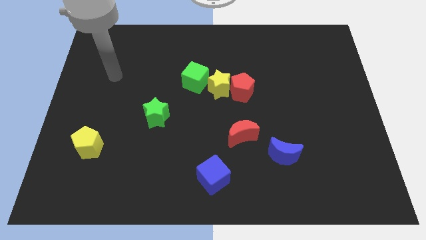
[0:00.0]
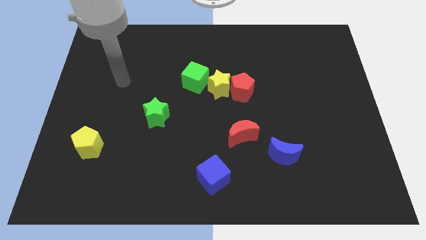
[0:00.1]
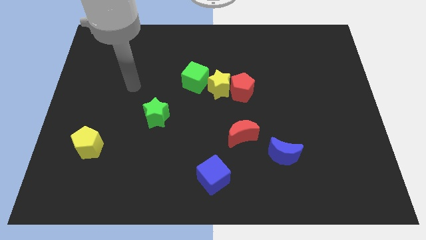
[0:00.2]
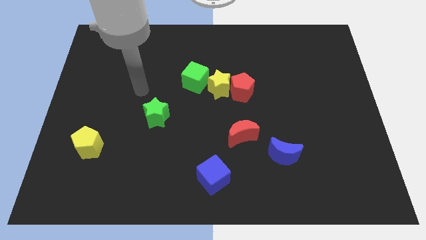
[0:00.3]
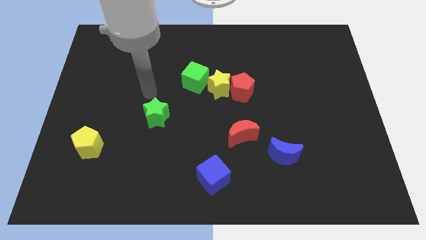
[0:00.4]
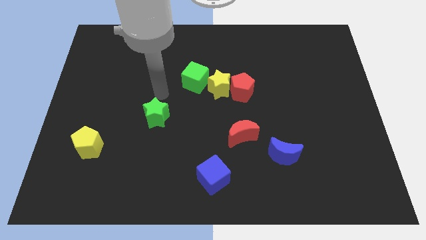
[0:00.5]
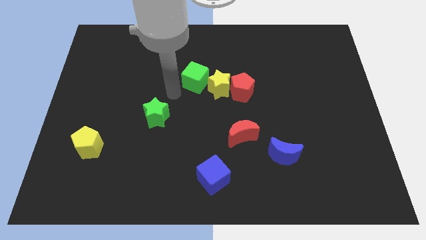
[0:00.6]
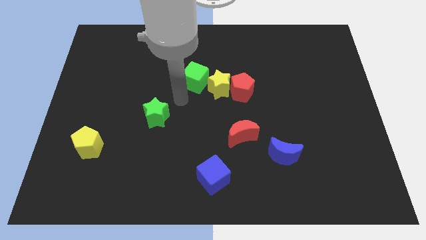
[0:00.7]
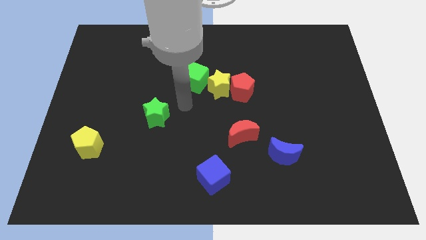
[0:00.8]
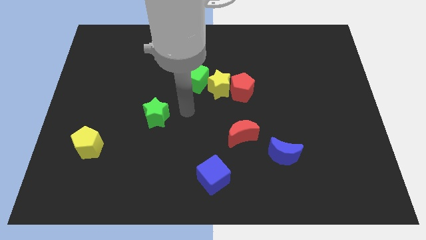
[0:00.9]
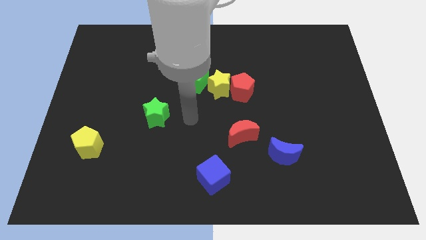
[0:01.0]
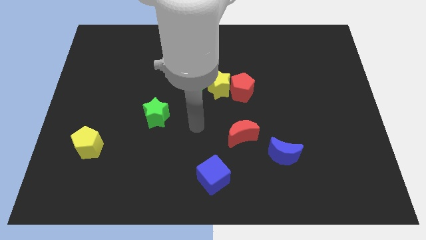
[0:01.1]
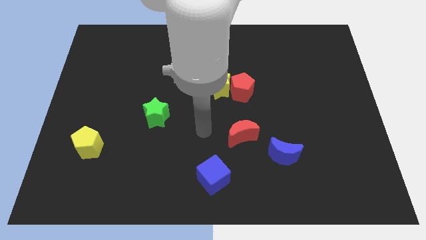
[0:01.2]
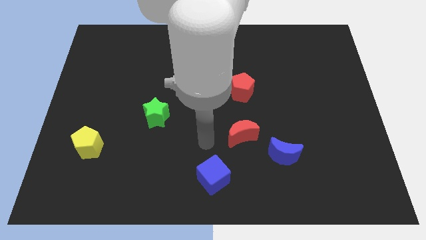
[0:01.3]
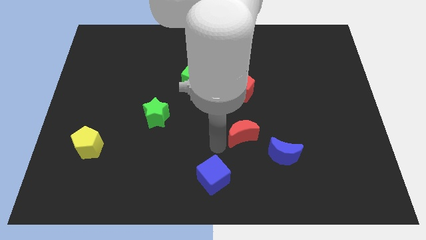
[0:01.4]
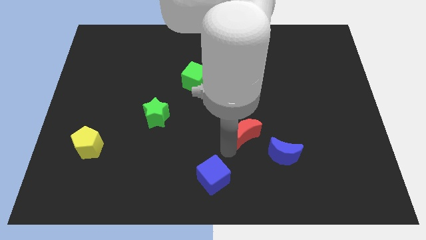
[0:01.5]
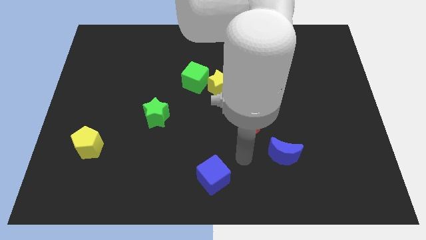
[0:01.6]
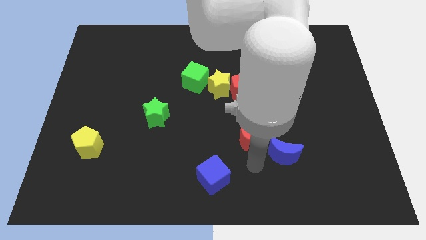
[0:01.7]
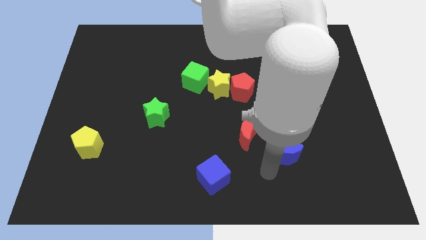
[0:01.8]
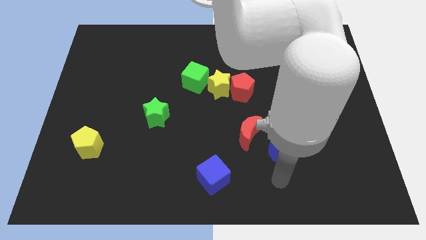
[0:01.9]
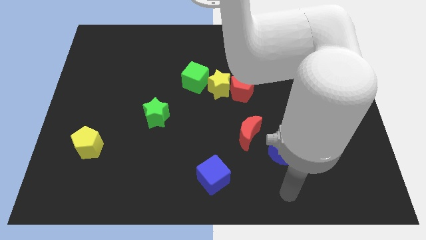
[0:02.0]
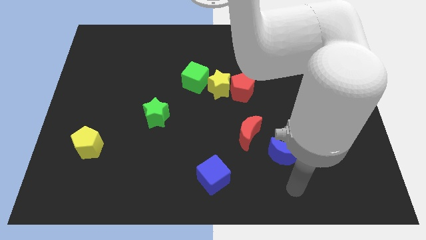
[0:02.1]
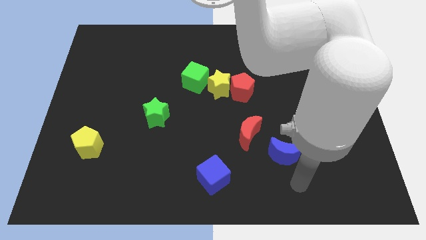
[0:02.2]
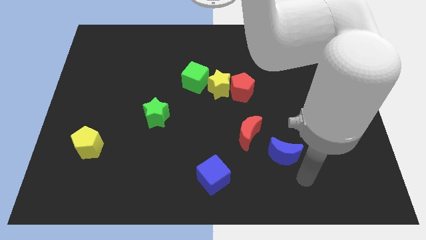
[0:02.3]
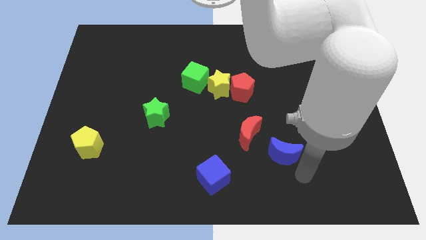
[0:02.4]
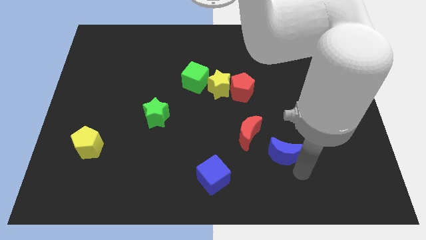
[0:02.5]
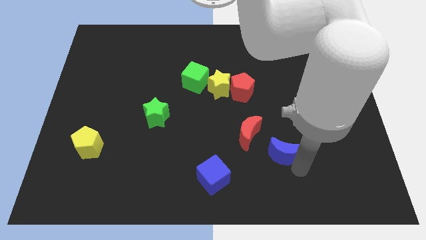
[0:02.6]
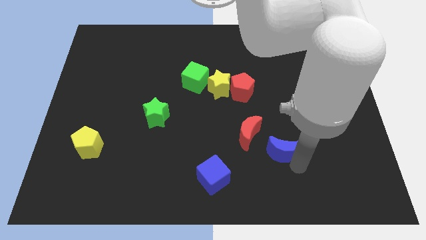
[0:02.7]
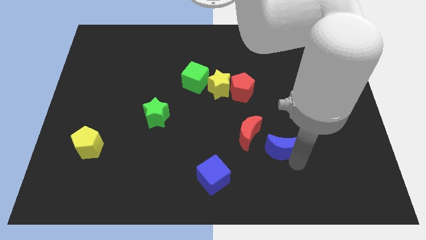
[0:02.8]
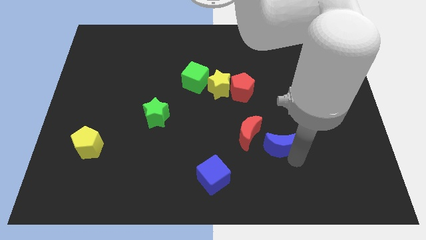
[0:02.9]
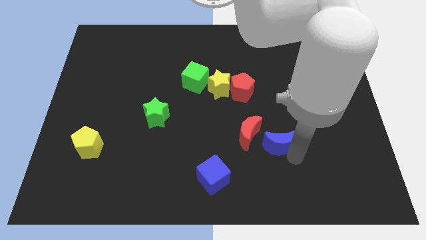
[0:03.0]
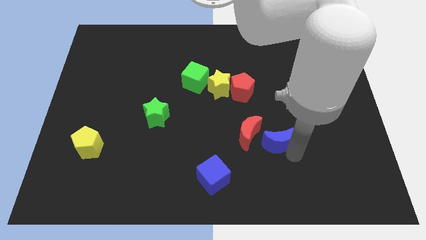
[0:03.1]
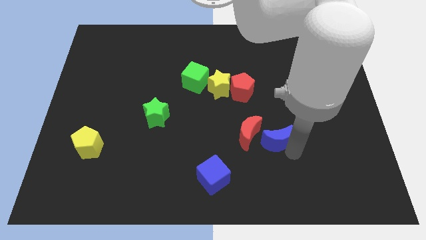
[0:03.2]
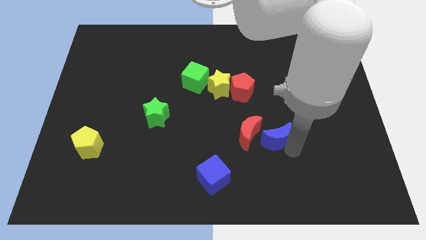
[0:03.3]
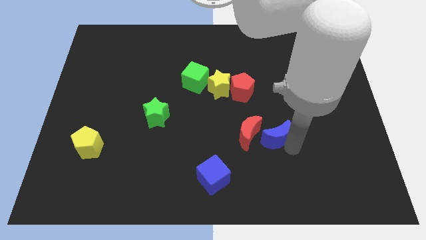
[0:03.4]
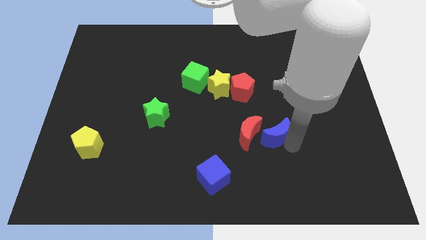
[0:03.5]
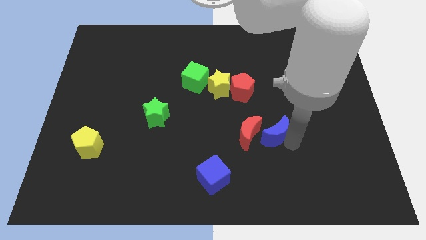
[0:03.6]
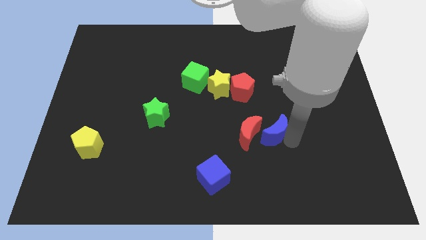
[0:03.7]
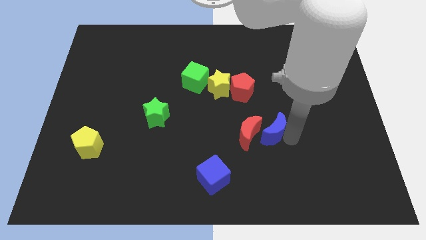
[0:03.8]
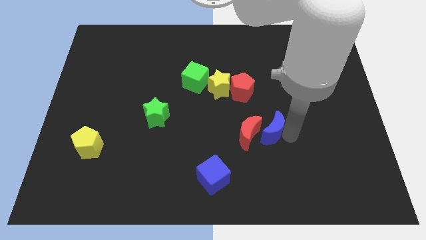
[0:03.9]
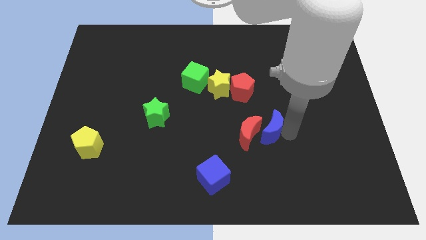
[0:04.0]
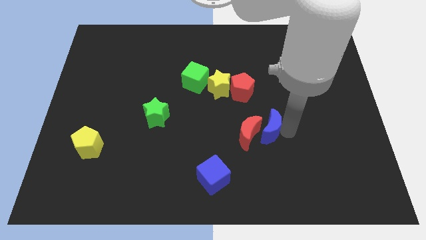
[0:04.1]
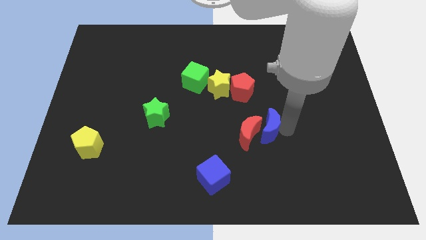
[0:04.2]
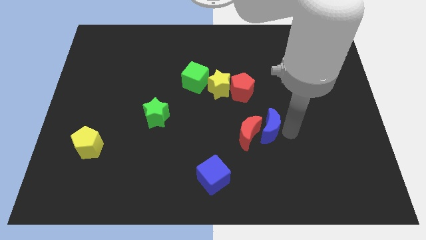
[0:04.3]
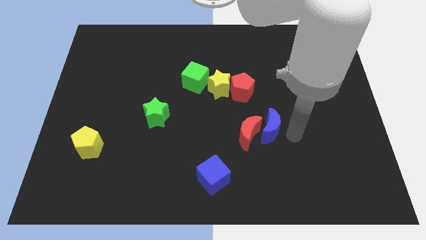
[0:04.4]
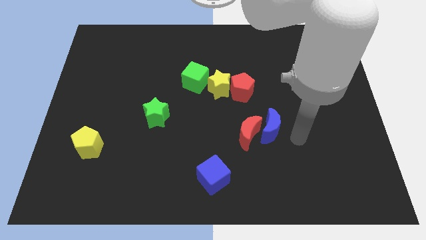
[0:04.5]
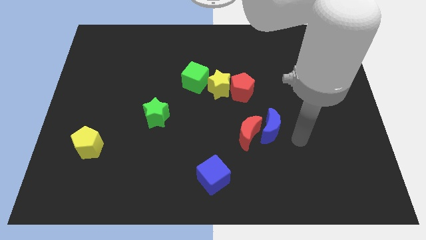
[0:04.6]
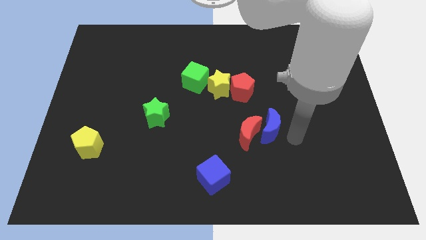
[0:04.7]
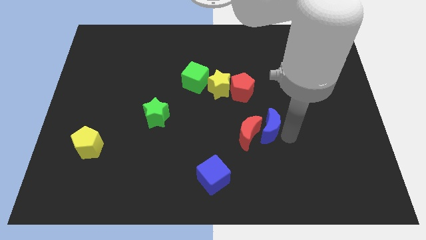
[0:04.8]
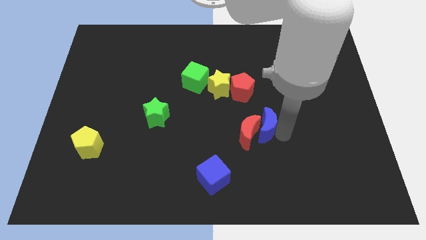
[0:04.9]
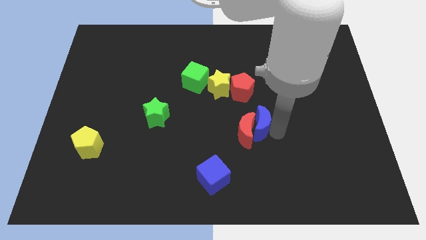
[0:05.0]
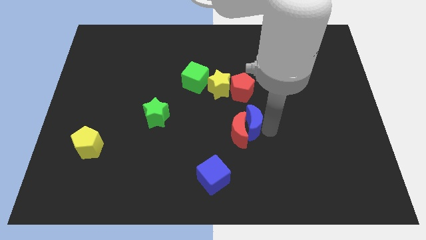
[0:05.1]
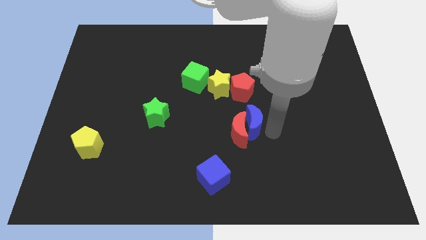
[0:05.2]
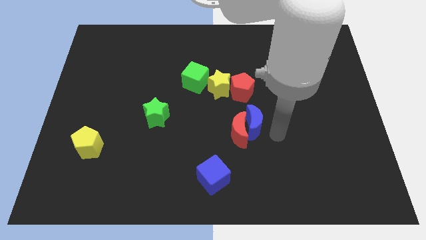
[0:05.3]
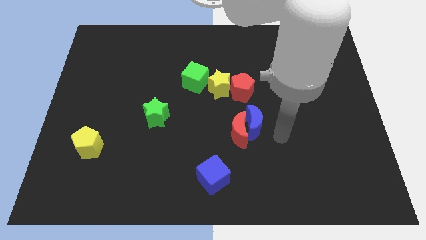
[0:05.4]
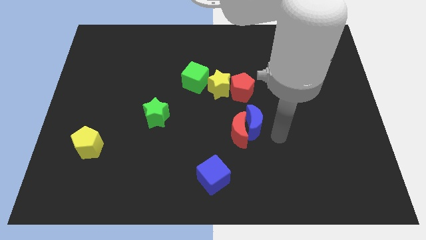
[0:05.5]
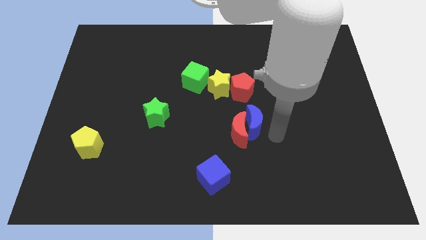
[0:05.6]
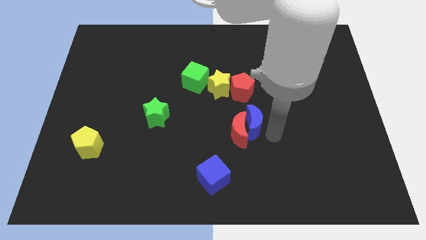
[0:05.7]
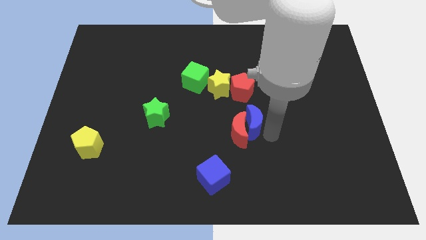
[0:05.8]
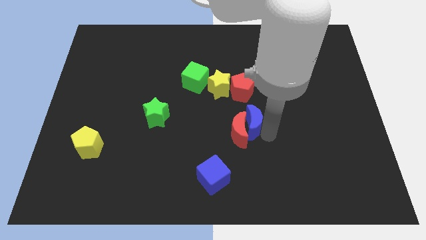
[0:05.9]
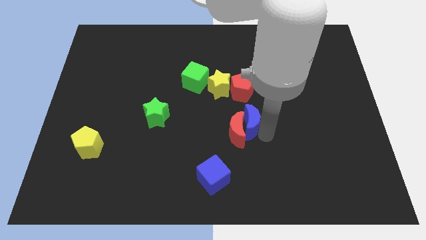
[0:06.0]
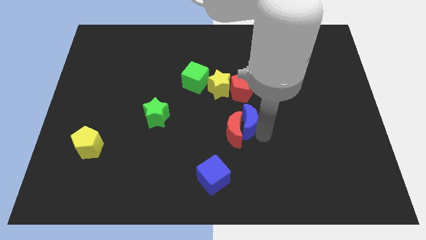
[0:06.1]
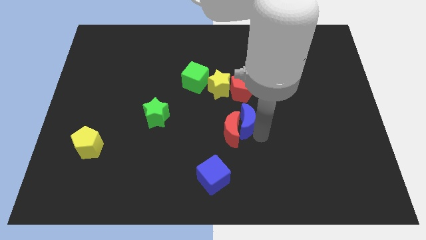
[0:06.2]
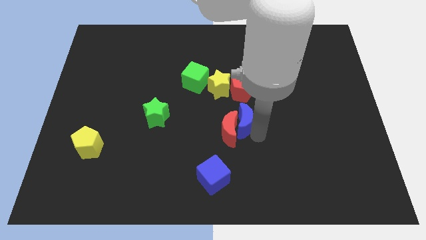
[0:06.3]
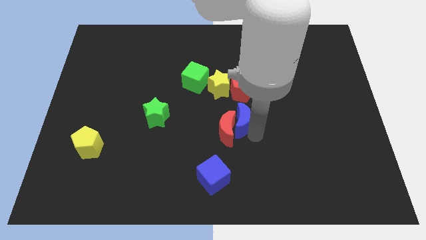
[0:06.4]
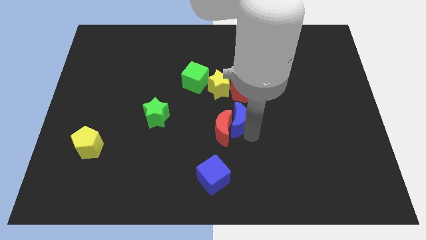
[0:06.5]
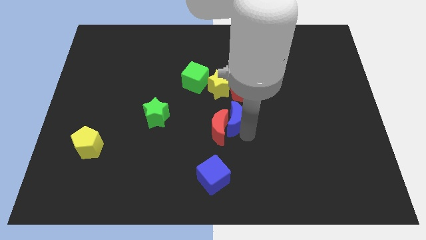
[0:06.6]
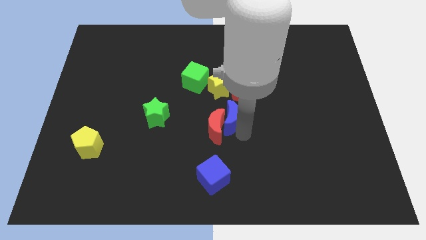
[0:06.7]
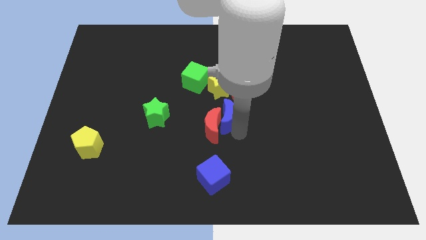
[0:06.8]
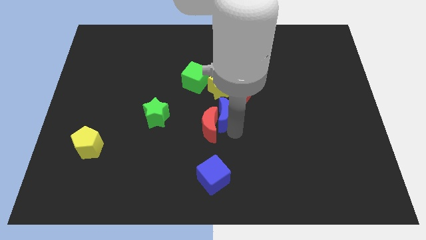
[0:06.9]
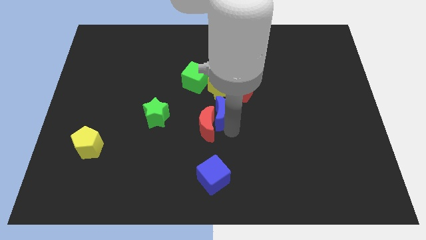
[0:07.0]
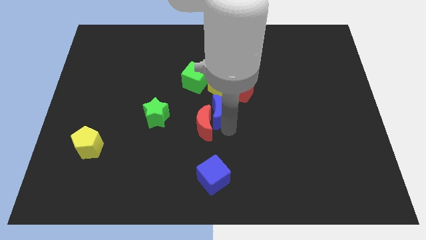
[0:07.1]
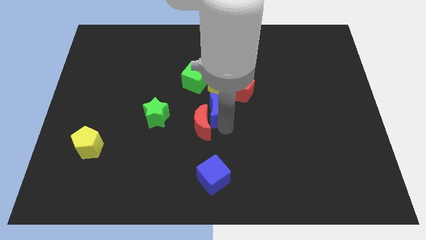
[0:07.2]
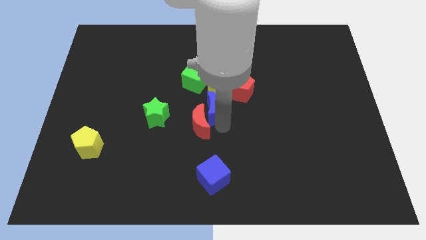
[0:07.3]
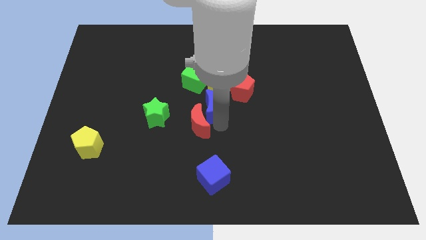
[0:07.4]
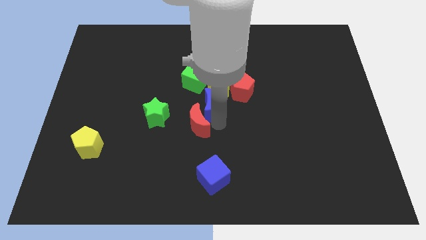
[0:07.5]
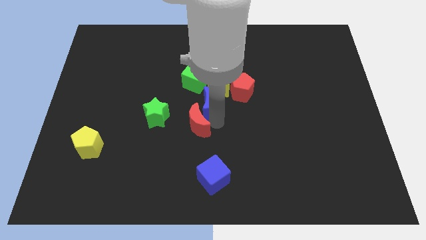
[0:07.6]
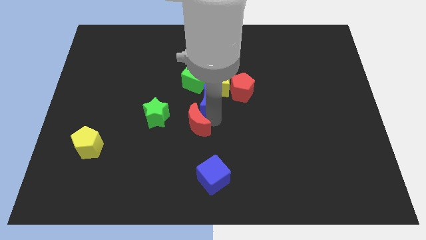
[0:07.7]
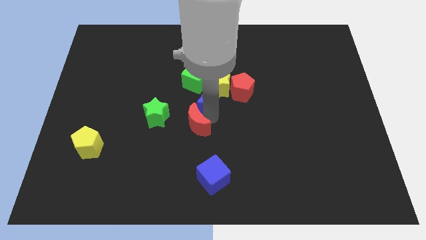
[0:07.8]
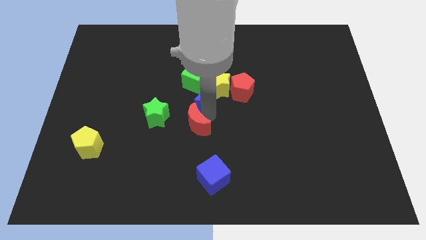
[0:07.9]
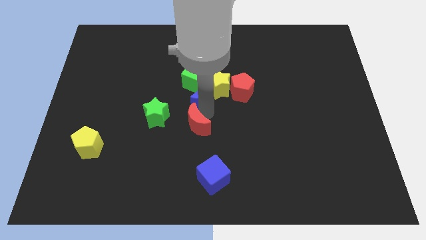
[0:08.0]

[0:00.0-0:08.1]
push the blue moon towards the green cube
